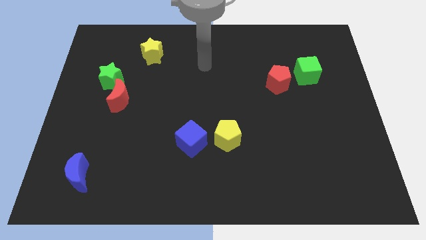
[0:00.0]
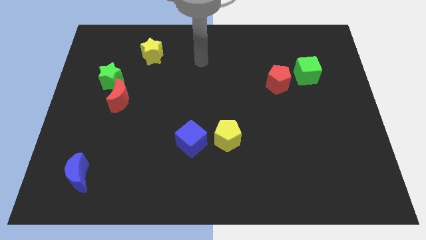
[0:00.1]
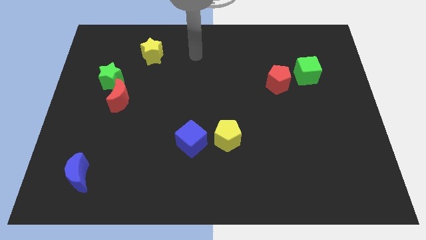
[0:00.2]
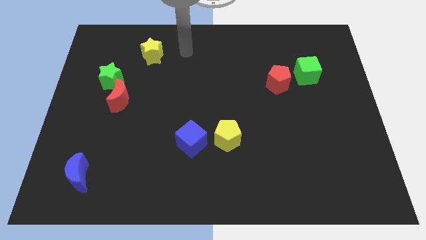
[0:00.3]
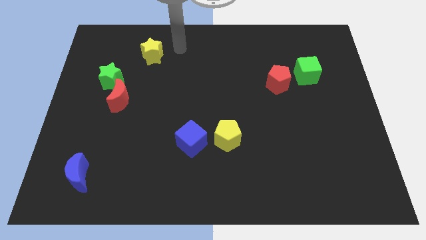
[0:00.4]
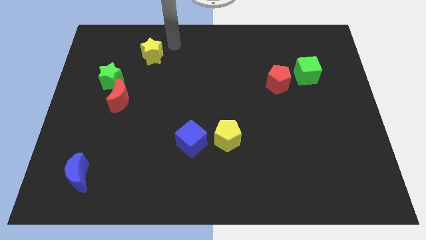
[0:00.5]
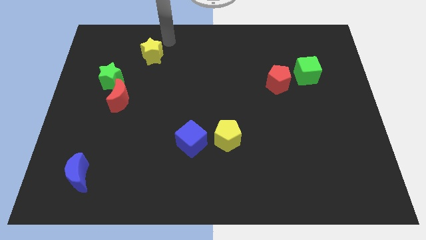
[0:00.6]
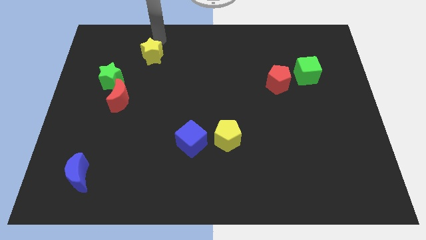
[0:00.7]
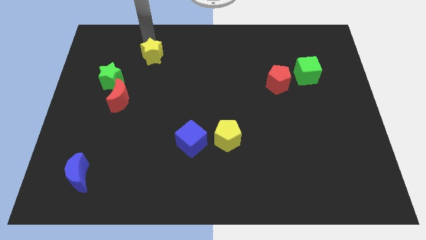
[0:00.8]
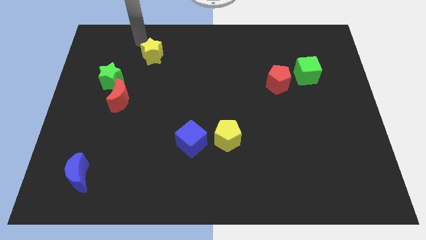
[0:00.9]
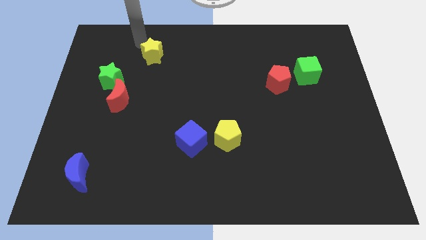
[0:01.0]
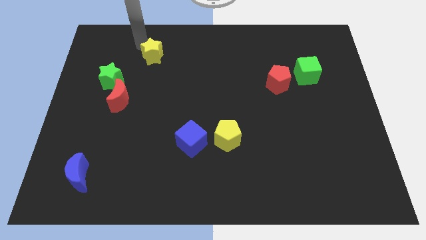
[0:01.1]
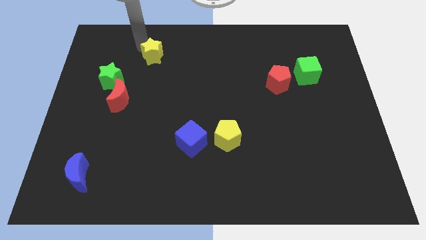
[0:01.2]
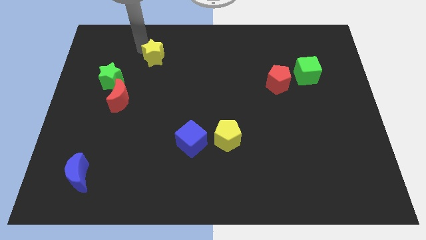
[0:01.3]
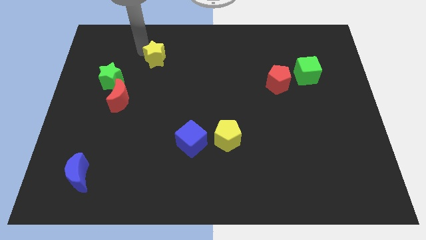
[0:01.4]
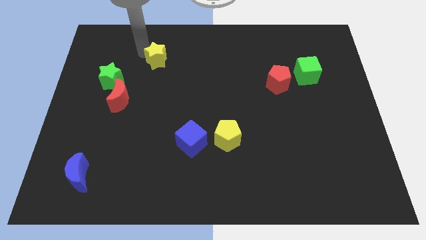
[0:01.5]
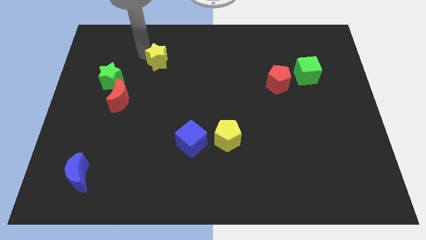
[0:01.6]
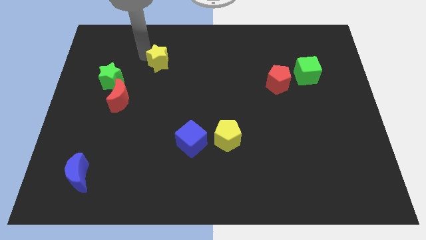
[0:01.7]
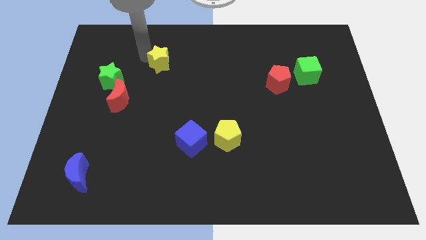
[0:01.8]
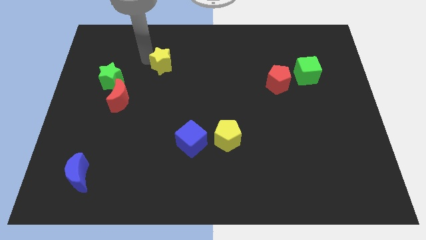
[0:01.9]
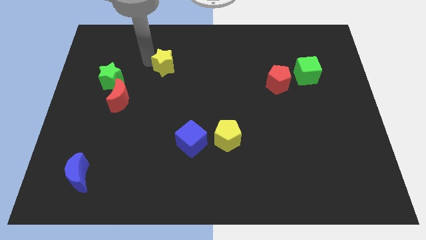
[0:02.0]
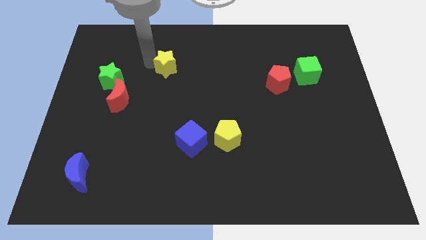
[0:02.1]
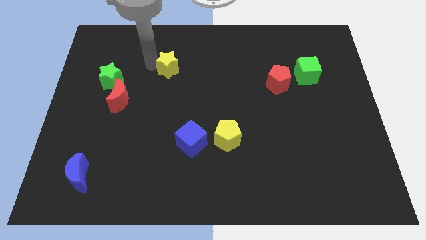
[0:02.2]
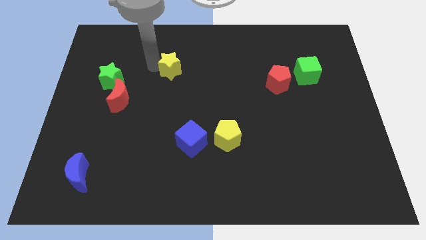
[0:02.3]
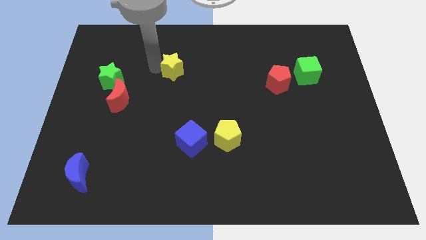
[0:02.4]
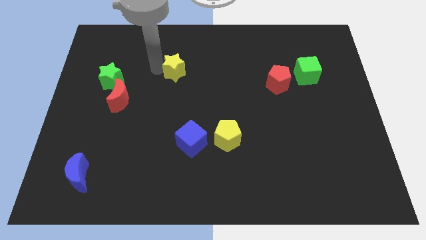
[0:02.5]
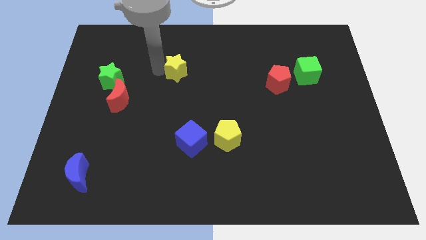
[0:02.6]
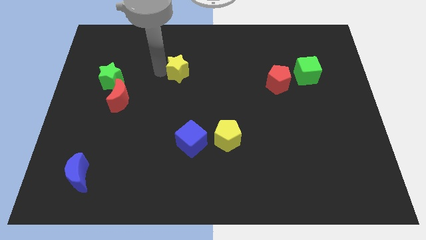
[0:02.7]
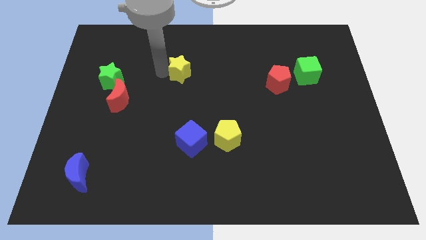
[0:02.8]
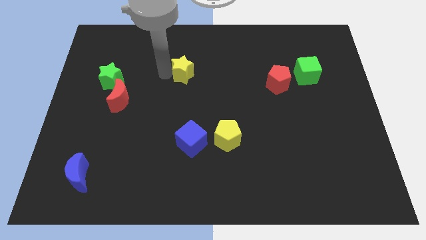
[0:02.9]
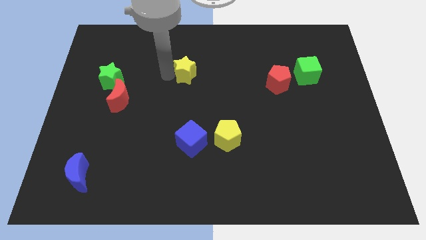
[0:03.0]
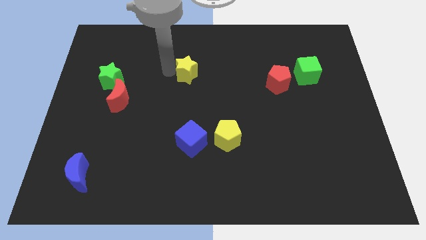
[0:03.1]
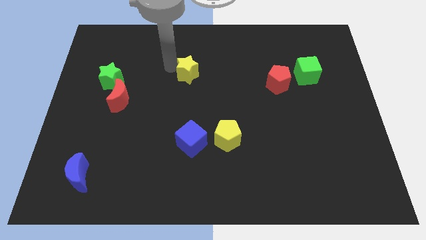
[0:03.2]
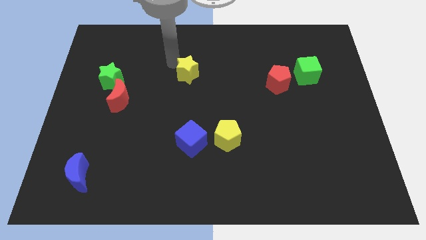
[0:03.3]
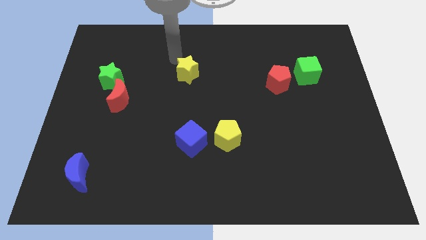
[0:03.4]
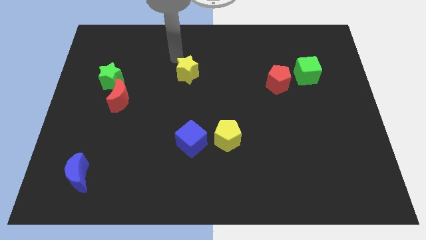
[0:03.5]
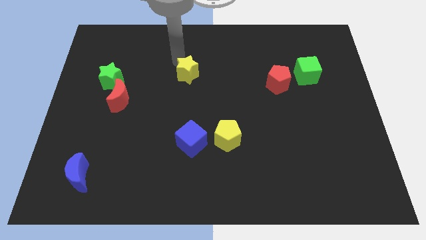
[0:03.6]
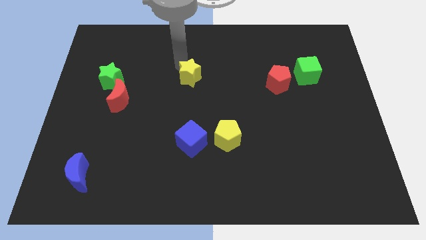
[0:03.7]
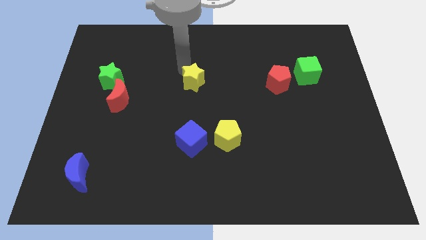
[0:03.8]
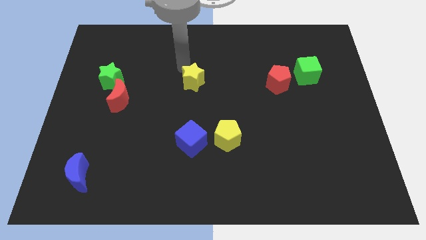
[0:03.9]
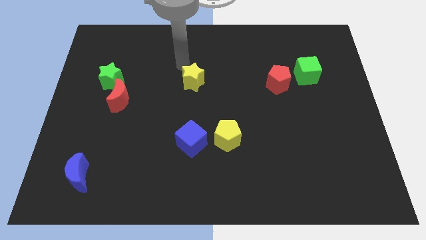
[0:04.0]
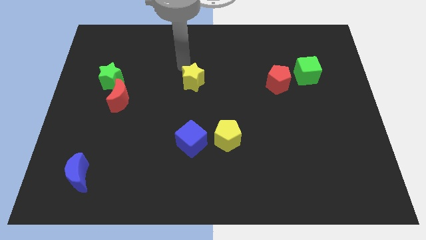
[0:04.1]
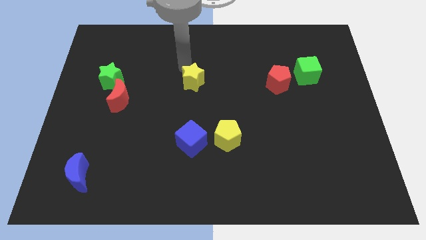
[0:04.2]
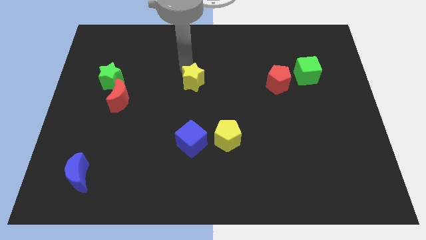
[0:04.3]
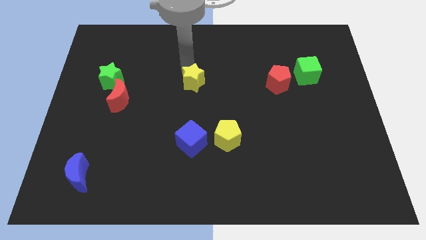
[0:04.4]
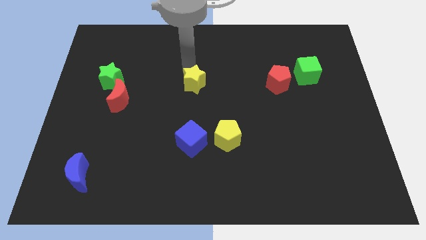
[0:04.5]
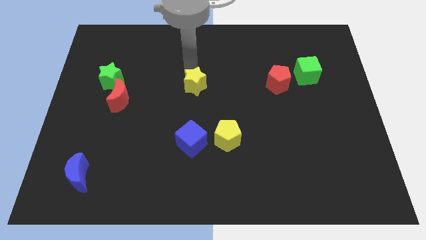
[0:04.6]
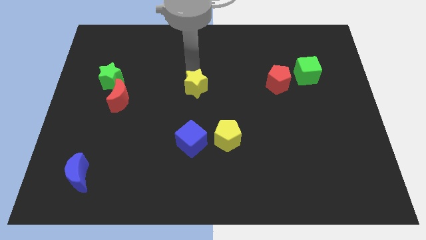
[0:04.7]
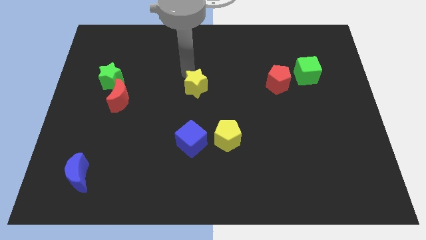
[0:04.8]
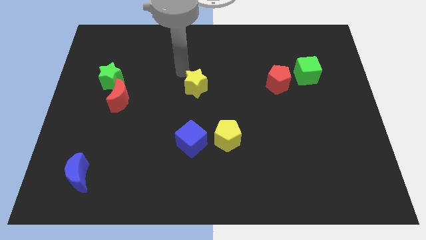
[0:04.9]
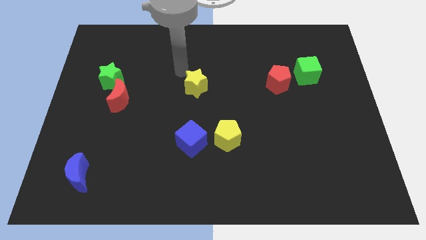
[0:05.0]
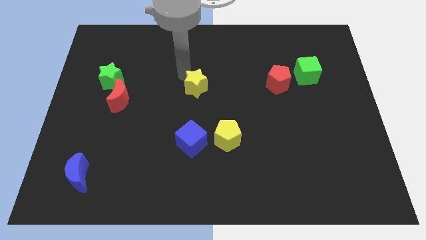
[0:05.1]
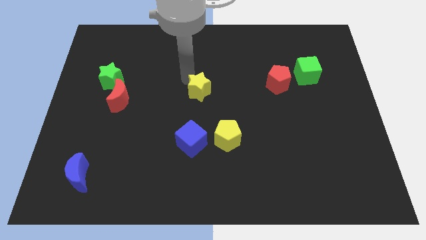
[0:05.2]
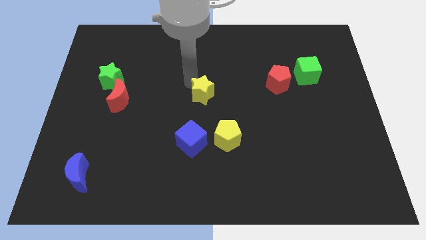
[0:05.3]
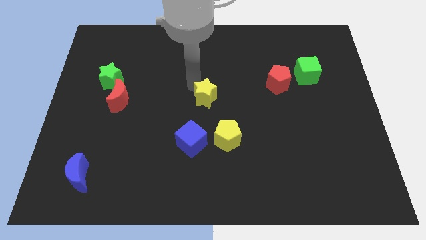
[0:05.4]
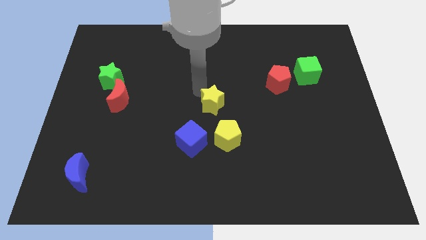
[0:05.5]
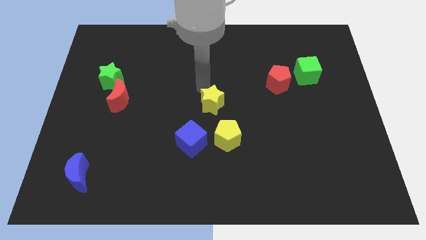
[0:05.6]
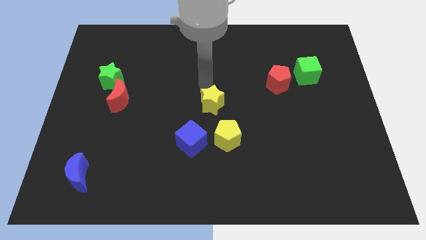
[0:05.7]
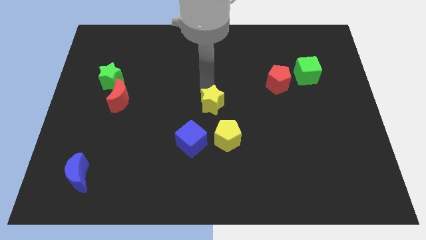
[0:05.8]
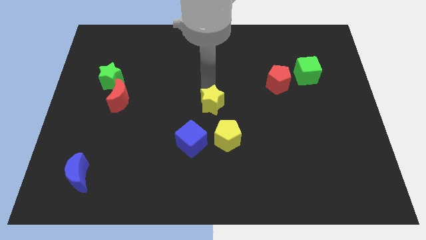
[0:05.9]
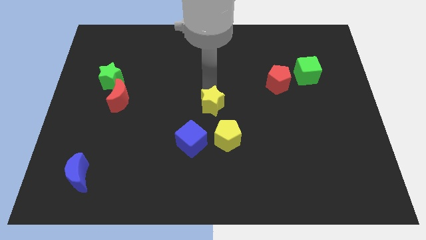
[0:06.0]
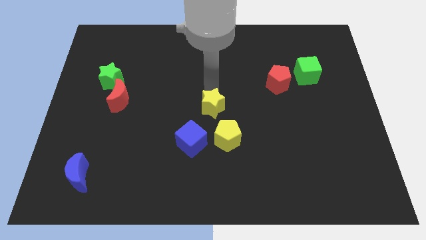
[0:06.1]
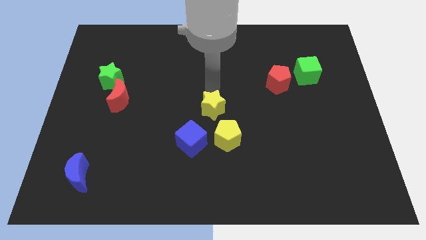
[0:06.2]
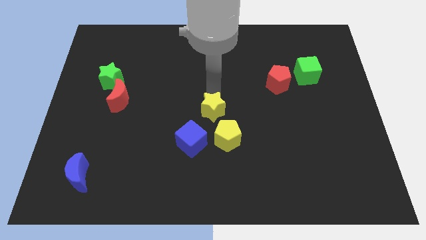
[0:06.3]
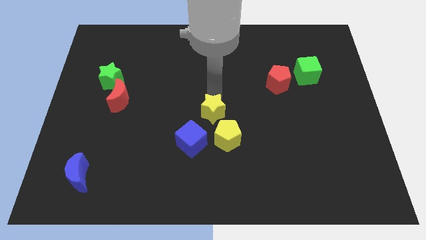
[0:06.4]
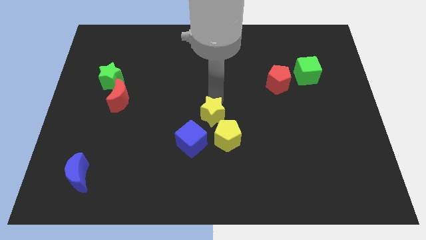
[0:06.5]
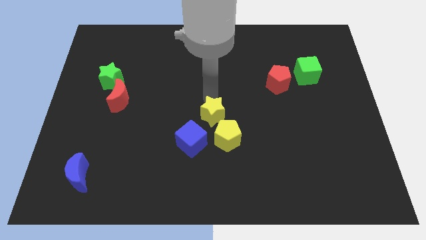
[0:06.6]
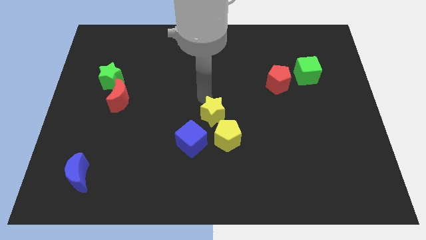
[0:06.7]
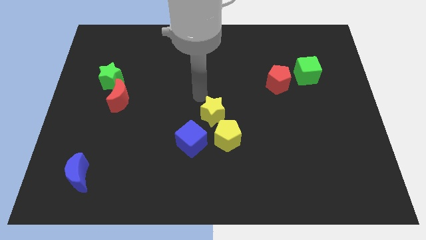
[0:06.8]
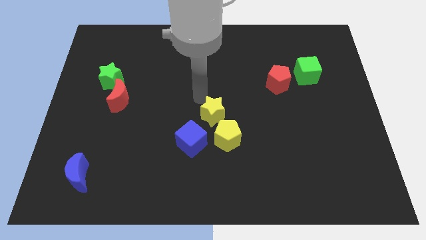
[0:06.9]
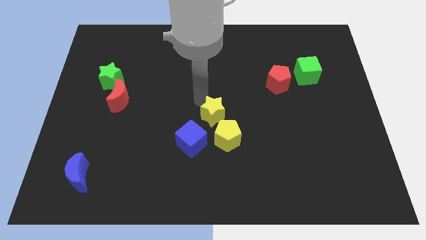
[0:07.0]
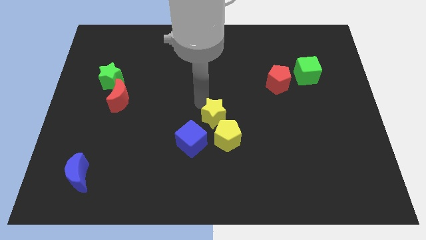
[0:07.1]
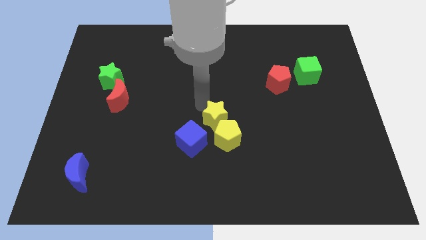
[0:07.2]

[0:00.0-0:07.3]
put the yellow star close to the yellow pentagon

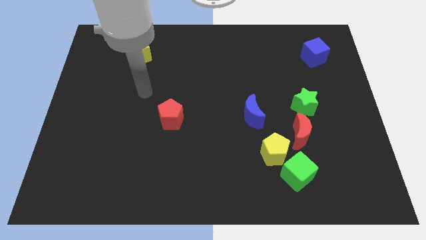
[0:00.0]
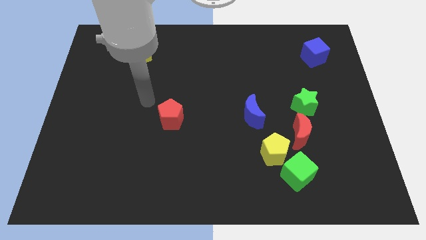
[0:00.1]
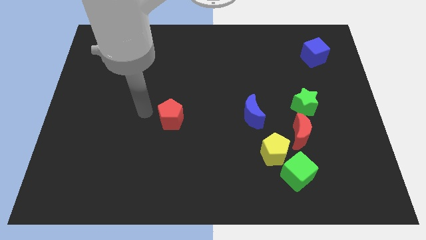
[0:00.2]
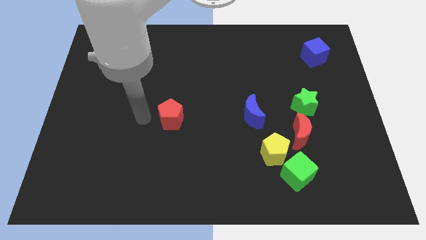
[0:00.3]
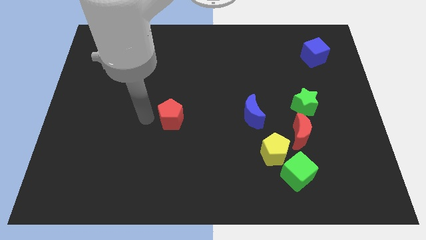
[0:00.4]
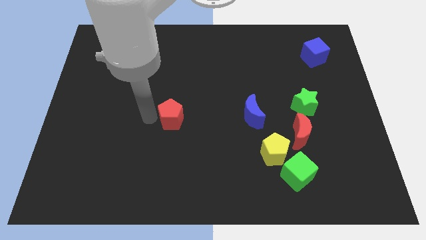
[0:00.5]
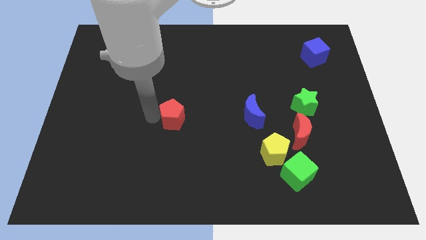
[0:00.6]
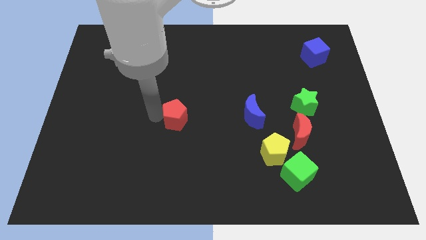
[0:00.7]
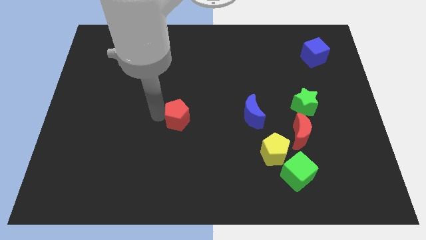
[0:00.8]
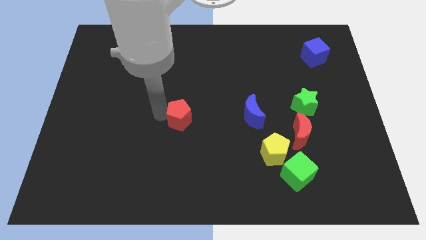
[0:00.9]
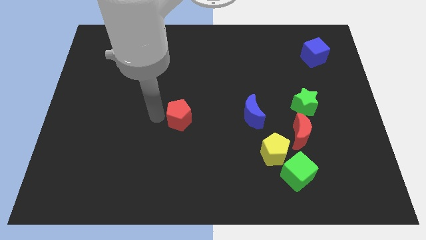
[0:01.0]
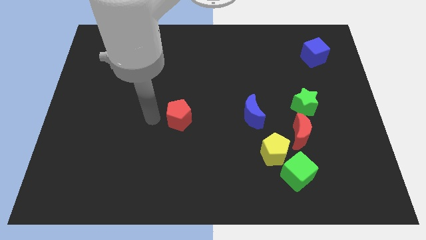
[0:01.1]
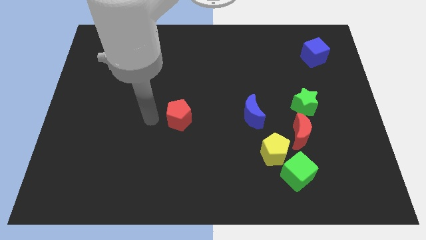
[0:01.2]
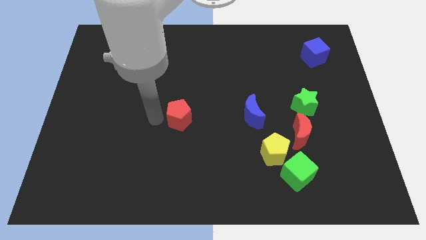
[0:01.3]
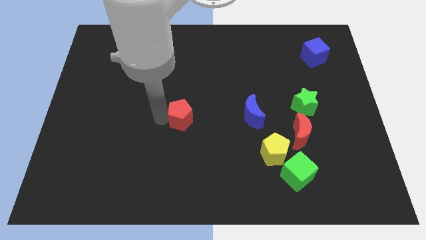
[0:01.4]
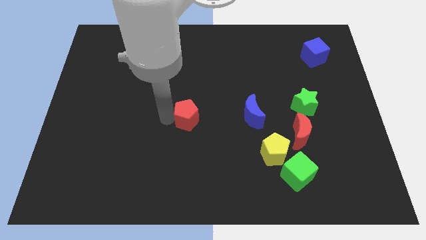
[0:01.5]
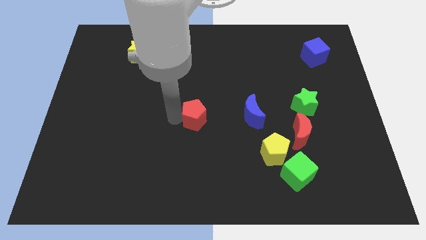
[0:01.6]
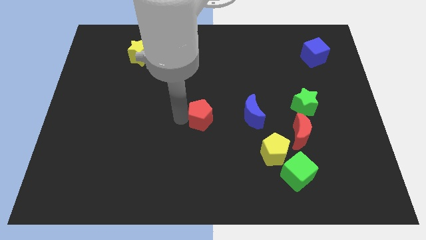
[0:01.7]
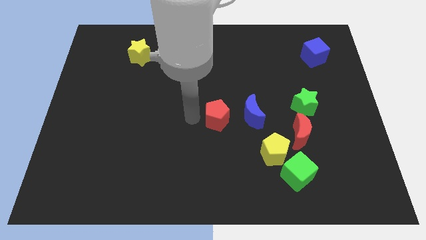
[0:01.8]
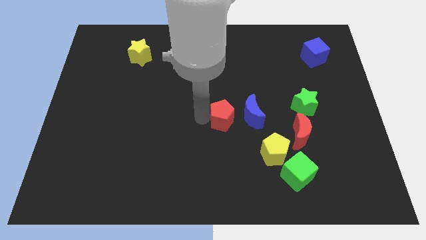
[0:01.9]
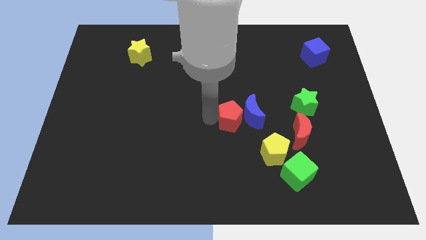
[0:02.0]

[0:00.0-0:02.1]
put the red pentagon next to the blue moon
